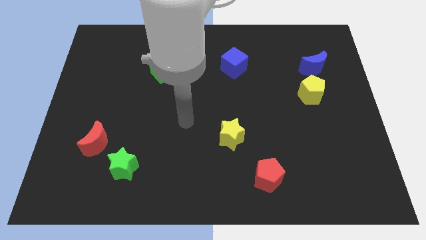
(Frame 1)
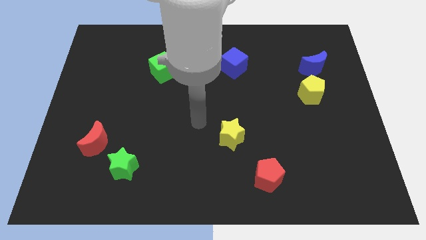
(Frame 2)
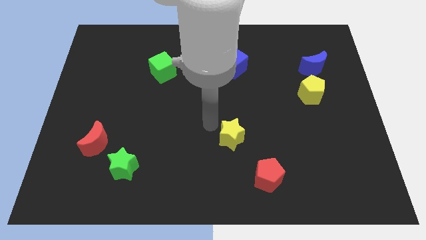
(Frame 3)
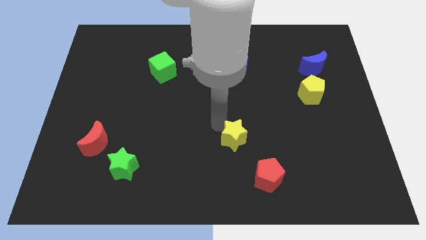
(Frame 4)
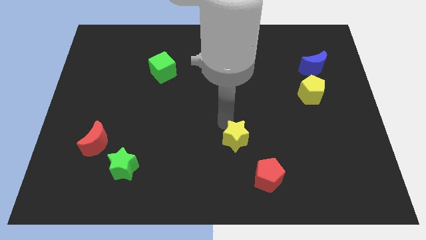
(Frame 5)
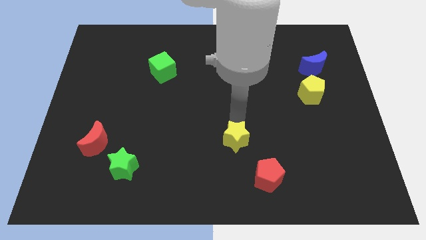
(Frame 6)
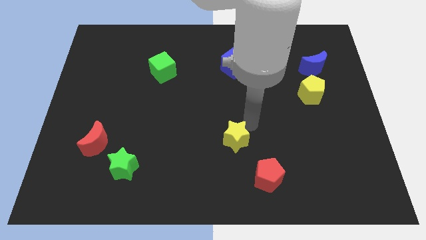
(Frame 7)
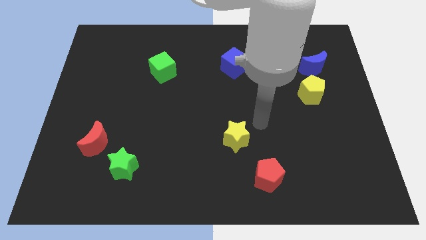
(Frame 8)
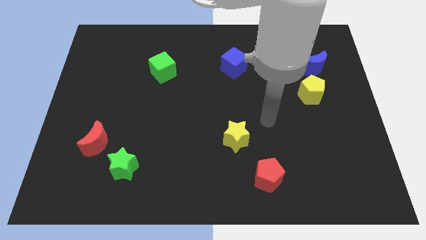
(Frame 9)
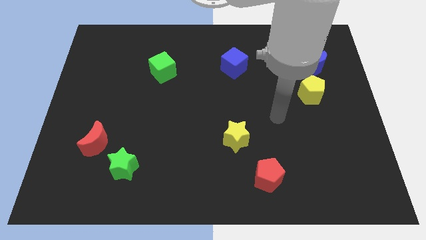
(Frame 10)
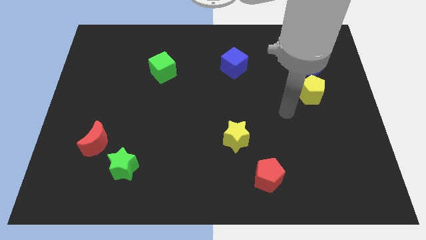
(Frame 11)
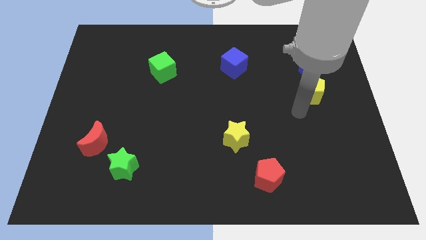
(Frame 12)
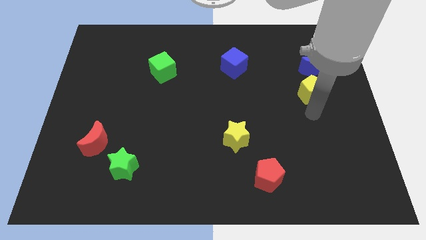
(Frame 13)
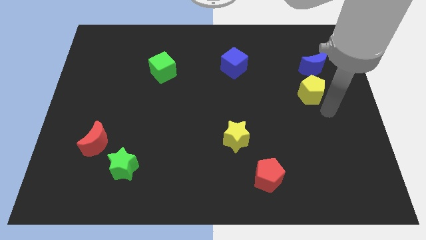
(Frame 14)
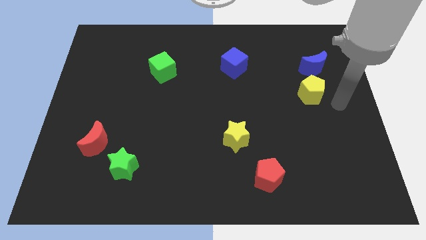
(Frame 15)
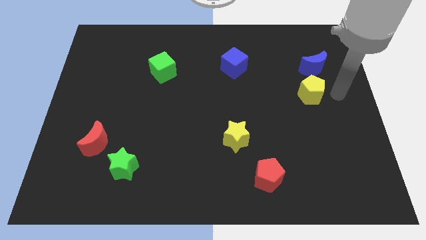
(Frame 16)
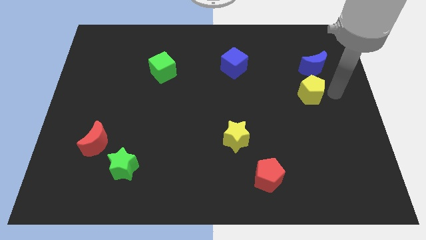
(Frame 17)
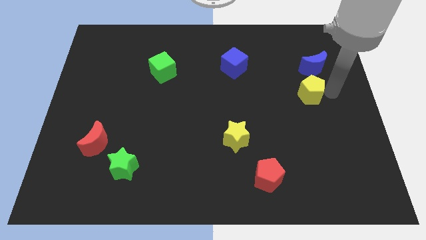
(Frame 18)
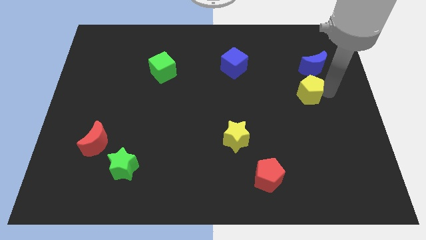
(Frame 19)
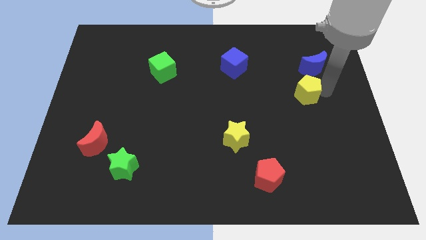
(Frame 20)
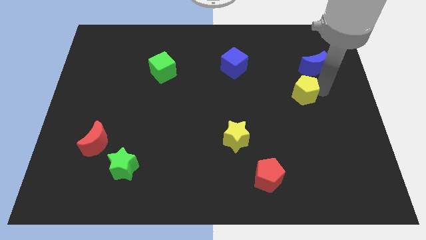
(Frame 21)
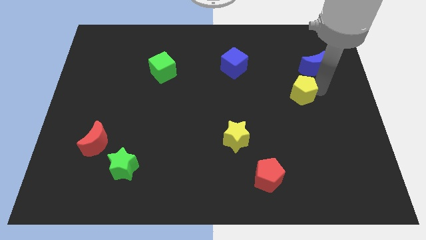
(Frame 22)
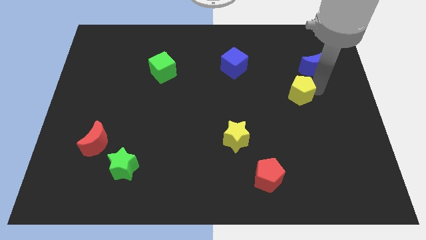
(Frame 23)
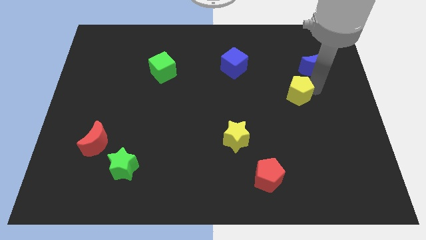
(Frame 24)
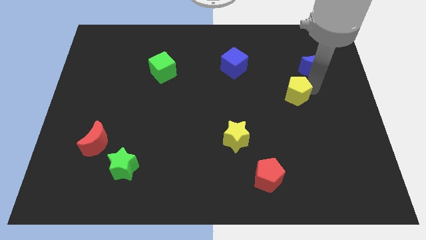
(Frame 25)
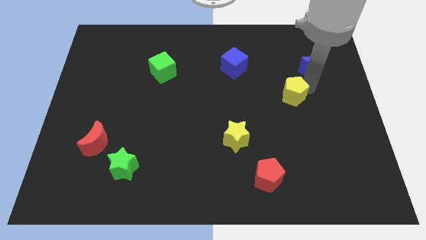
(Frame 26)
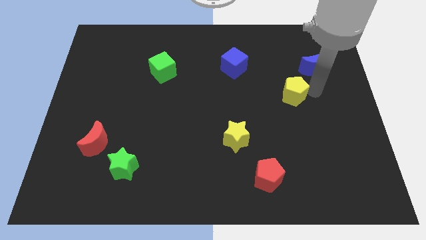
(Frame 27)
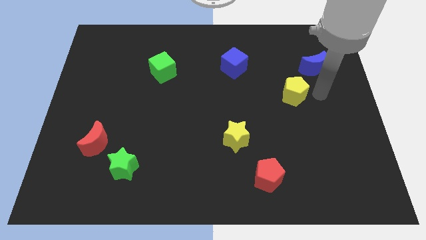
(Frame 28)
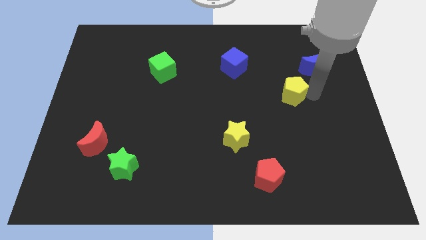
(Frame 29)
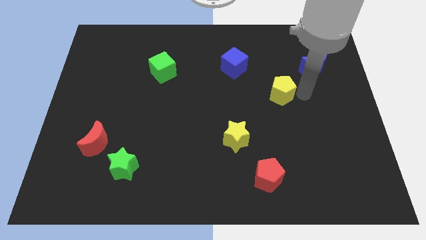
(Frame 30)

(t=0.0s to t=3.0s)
slightly move the yellow pentagon left

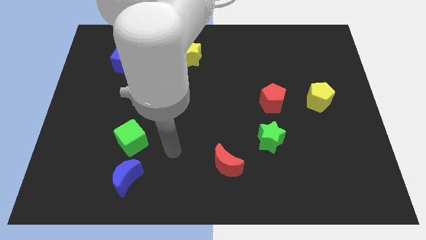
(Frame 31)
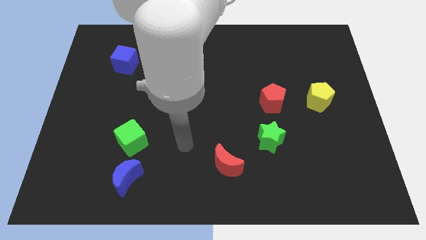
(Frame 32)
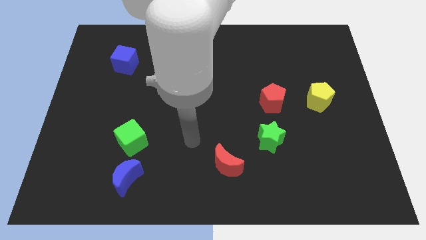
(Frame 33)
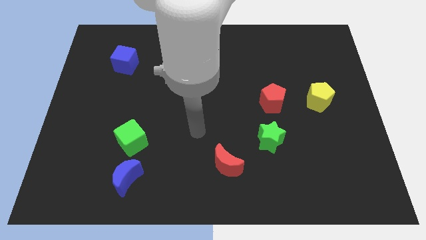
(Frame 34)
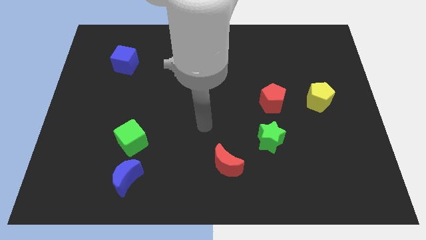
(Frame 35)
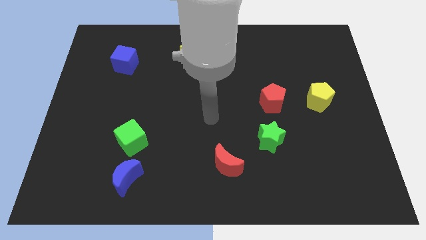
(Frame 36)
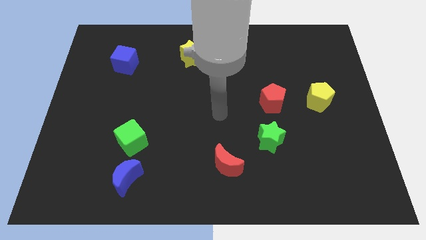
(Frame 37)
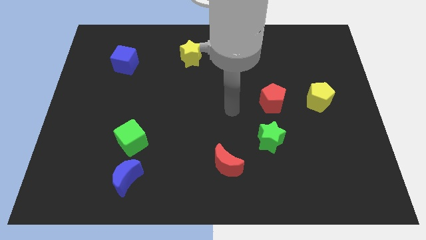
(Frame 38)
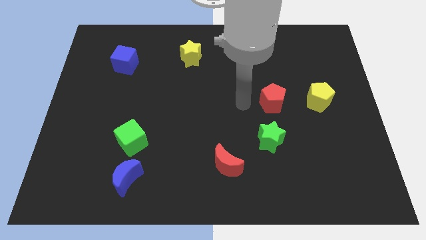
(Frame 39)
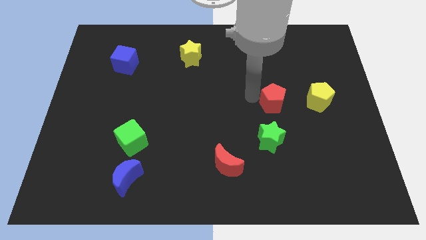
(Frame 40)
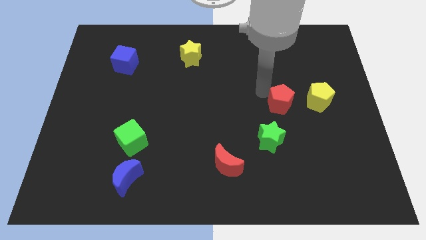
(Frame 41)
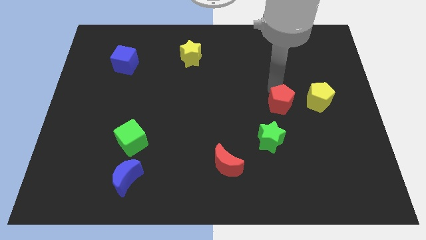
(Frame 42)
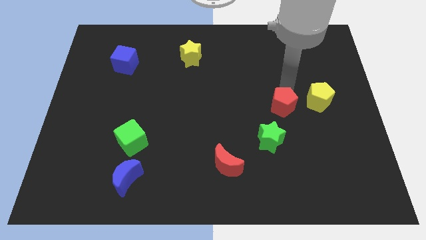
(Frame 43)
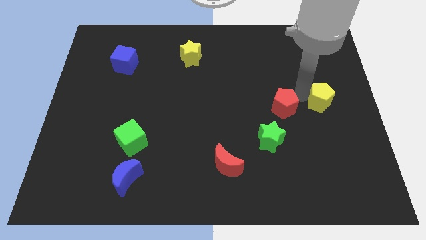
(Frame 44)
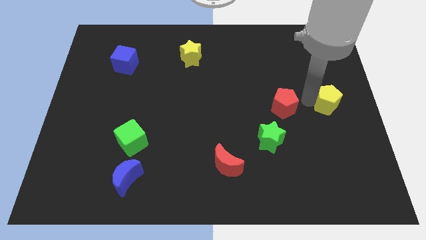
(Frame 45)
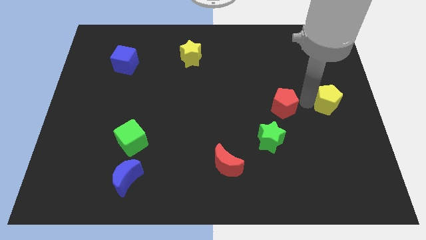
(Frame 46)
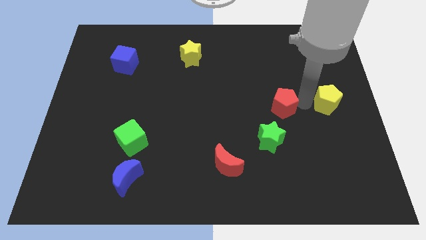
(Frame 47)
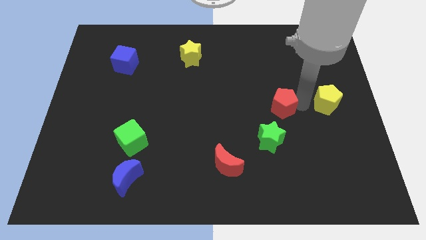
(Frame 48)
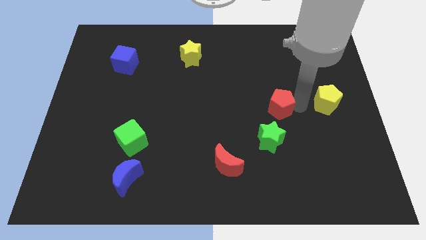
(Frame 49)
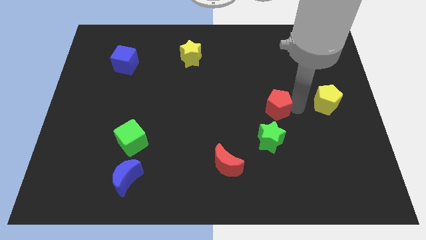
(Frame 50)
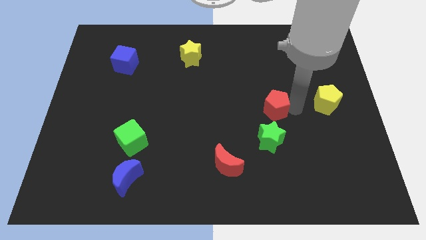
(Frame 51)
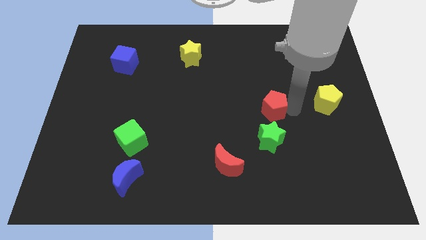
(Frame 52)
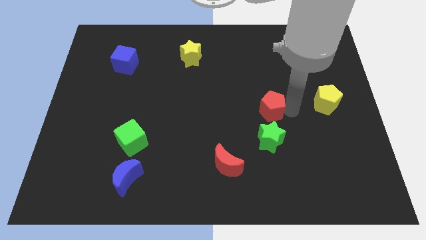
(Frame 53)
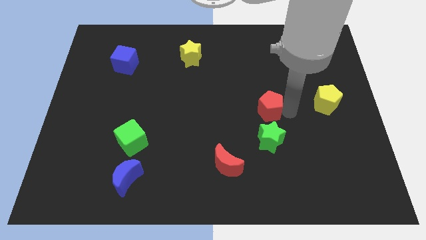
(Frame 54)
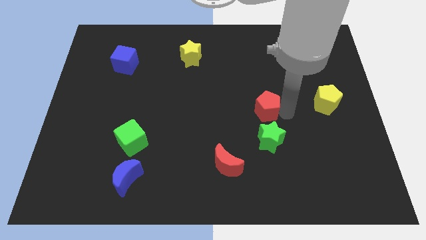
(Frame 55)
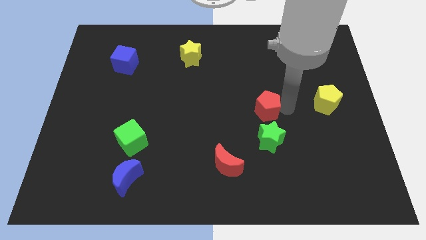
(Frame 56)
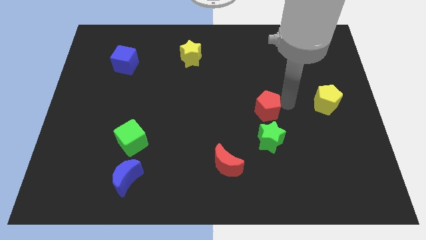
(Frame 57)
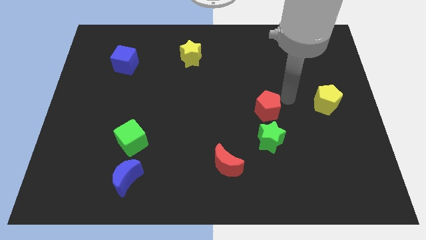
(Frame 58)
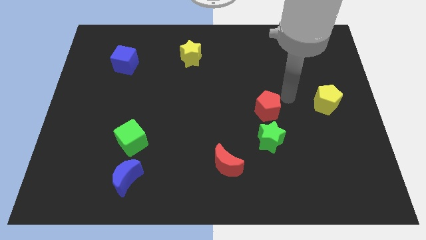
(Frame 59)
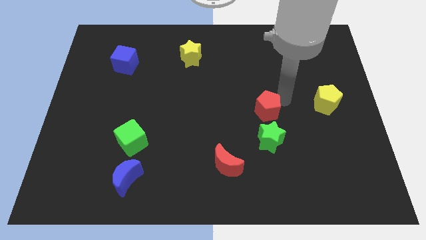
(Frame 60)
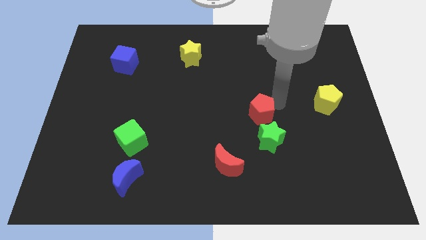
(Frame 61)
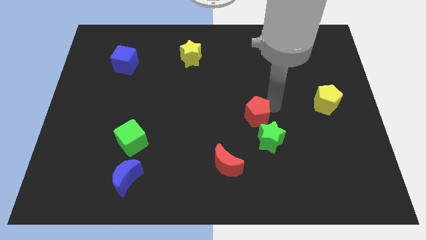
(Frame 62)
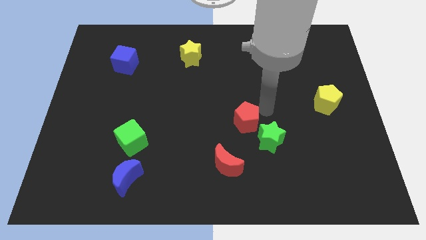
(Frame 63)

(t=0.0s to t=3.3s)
slide the red pentagon somewhat down and to the left diagonally

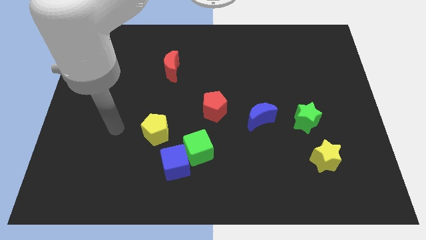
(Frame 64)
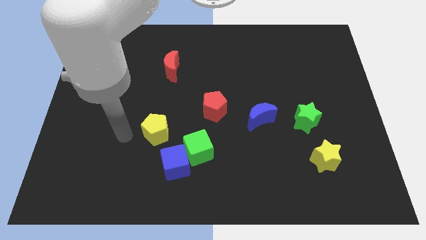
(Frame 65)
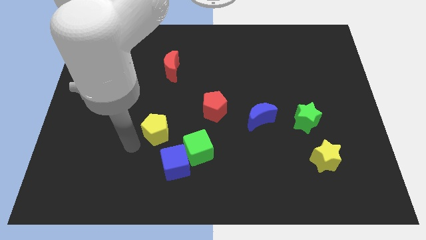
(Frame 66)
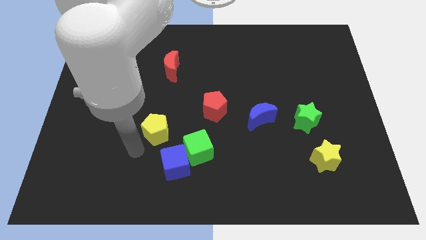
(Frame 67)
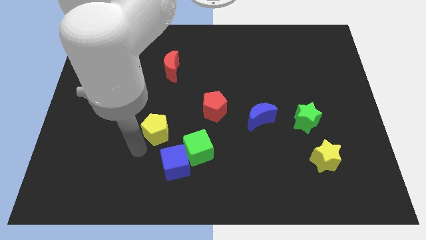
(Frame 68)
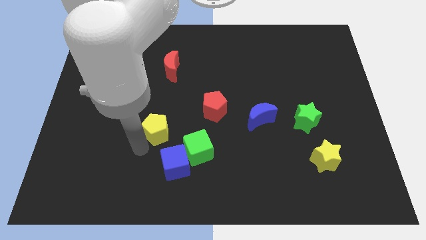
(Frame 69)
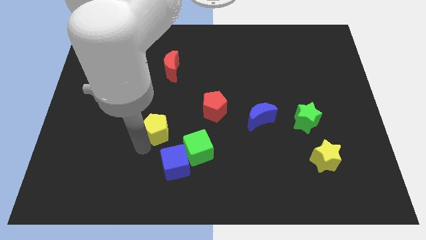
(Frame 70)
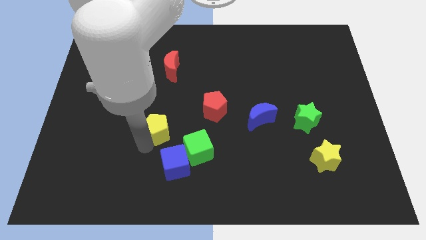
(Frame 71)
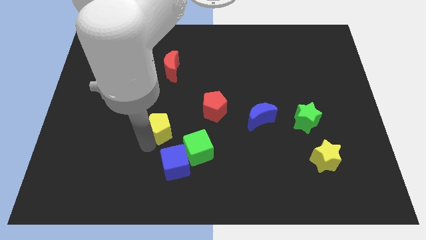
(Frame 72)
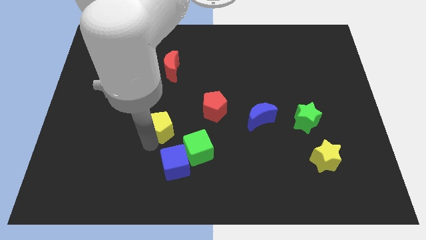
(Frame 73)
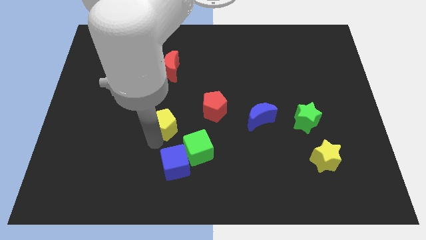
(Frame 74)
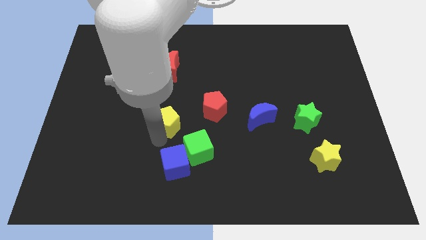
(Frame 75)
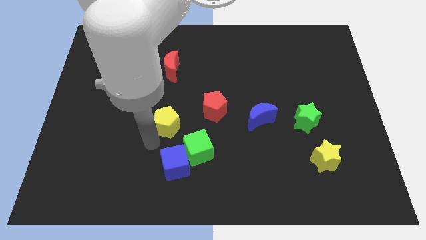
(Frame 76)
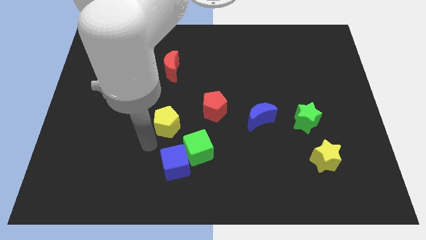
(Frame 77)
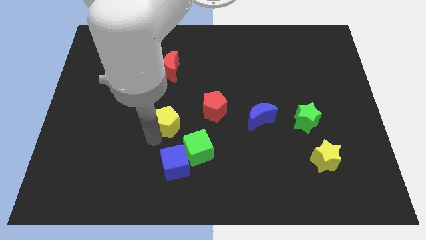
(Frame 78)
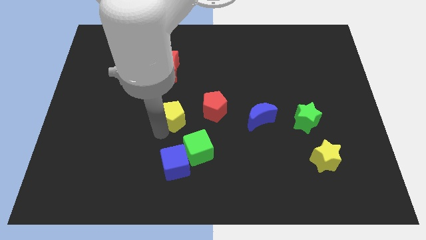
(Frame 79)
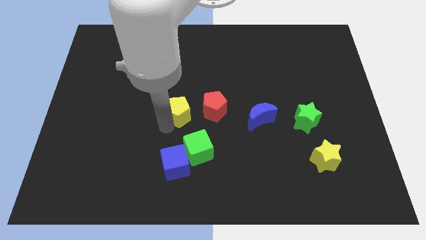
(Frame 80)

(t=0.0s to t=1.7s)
slightly slide the yellow pentagon diagonally up and right

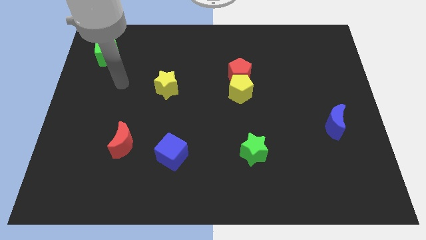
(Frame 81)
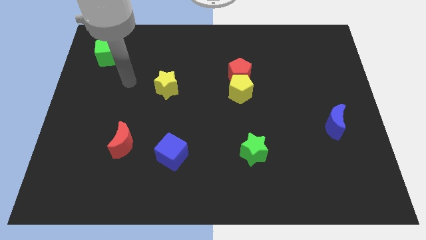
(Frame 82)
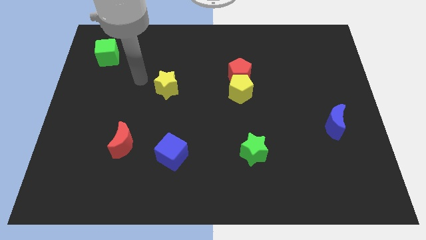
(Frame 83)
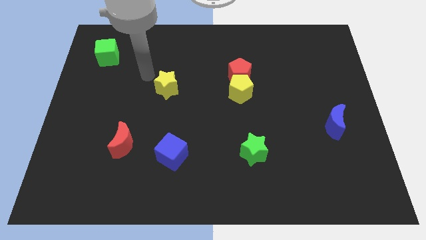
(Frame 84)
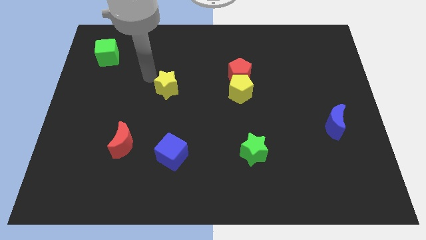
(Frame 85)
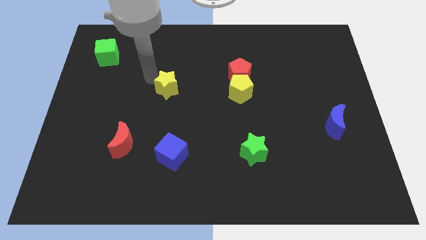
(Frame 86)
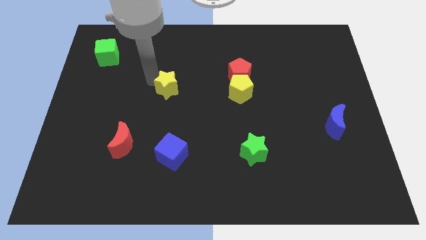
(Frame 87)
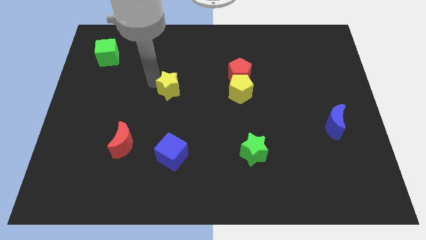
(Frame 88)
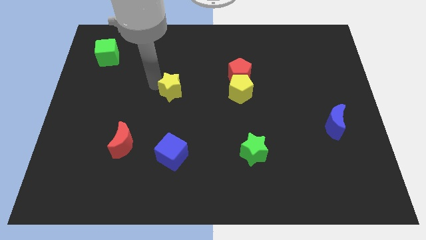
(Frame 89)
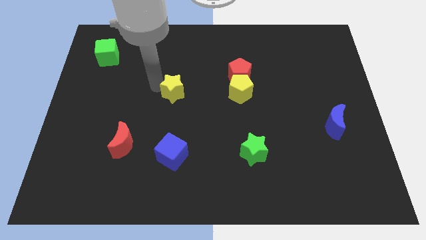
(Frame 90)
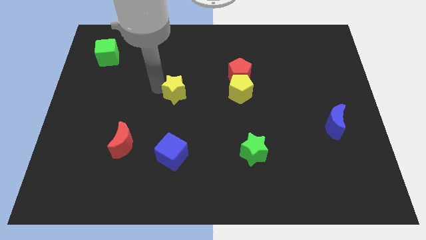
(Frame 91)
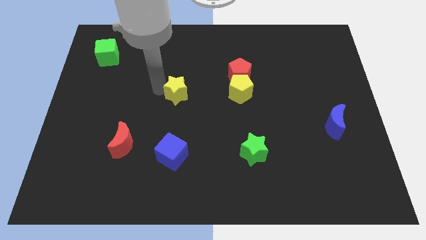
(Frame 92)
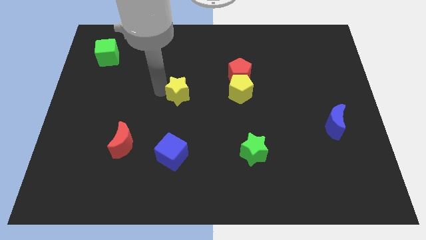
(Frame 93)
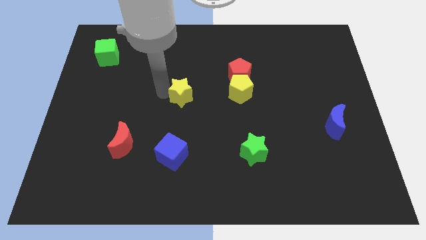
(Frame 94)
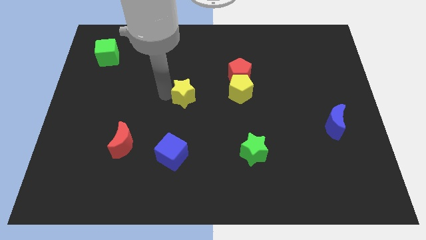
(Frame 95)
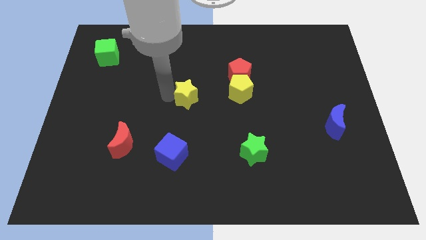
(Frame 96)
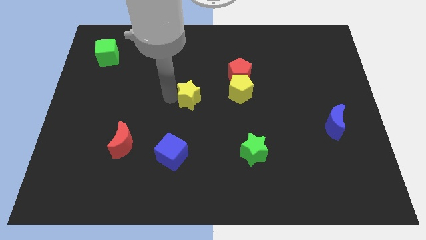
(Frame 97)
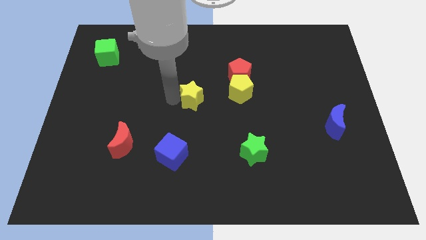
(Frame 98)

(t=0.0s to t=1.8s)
push the yellow star downwards and to the right a little bit
